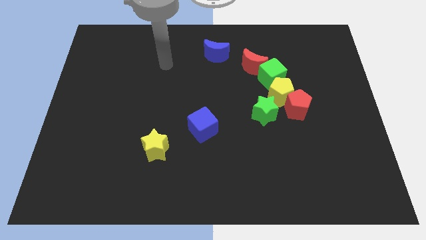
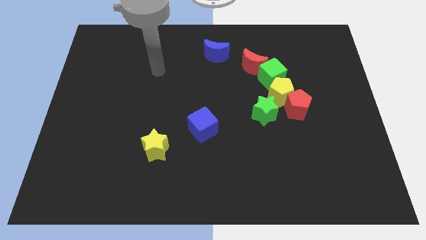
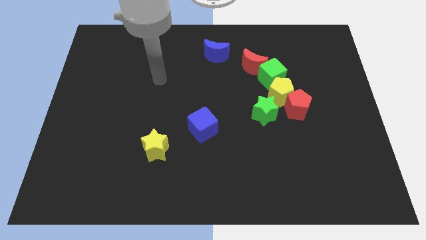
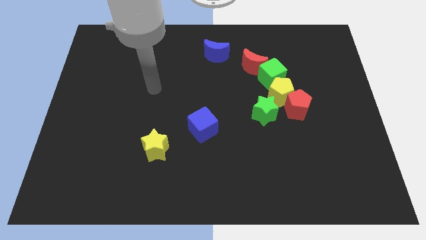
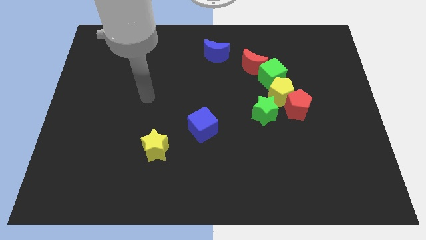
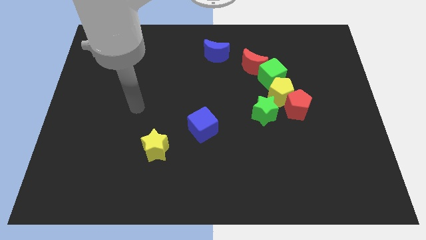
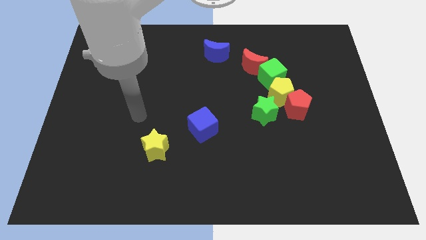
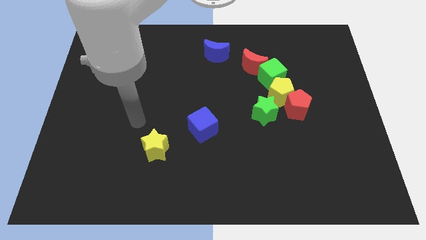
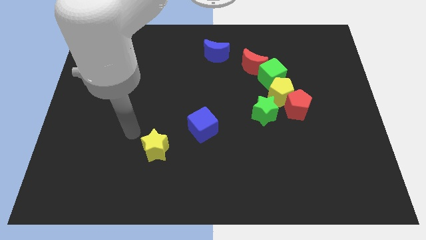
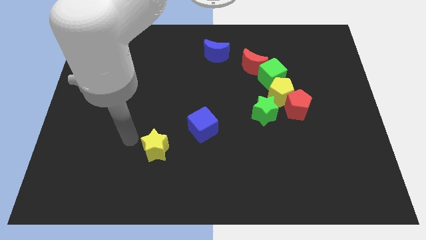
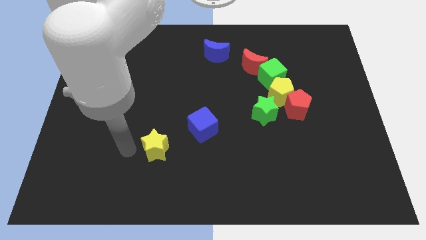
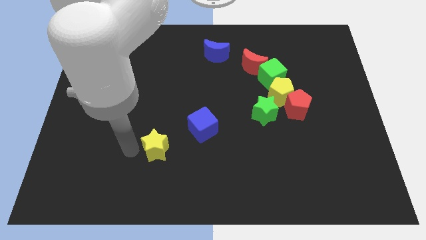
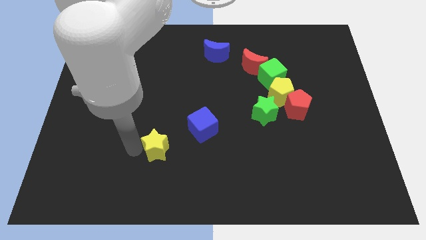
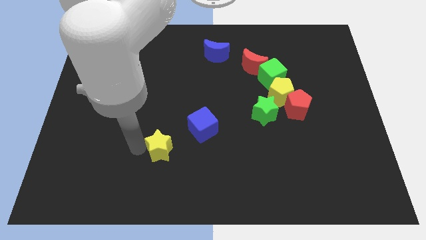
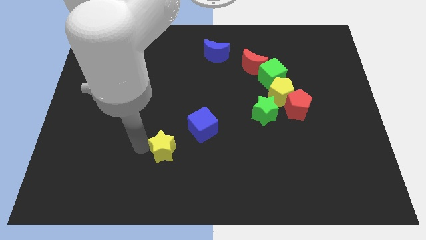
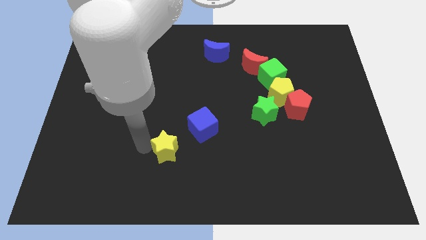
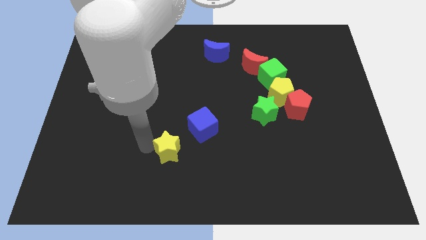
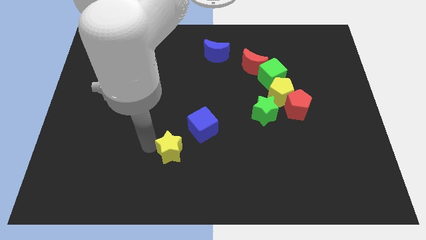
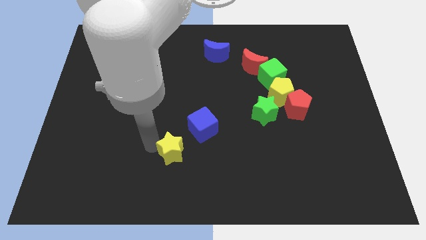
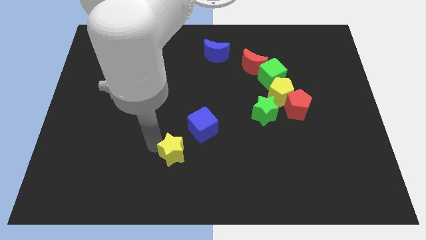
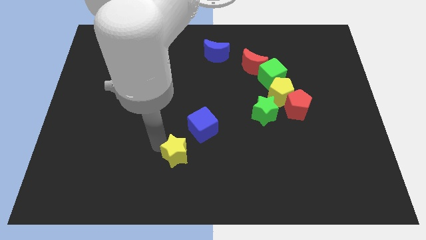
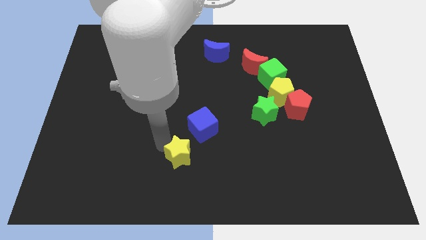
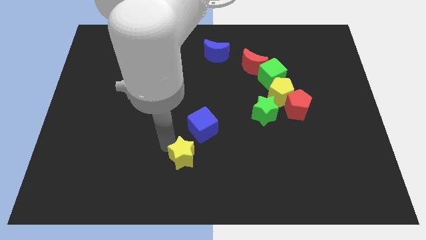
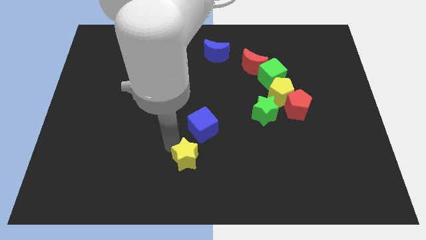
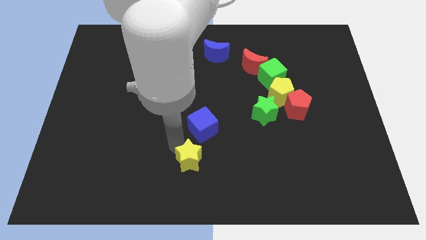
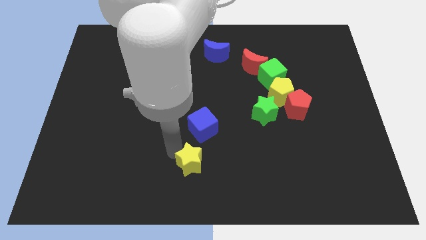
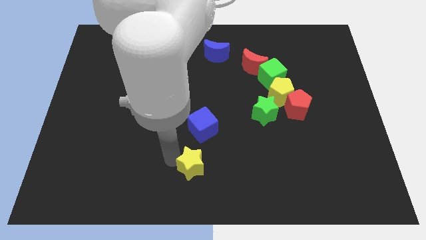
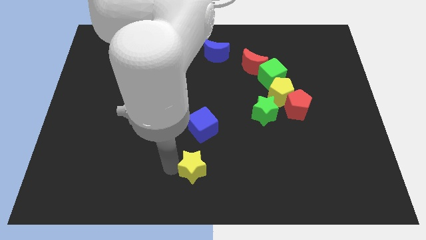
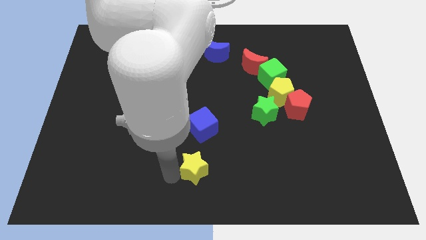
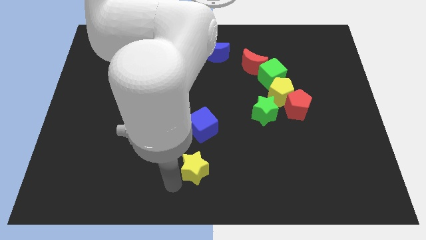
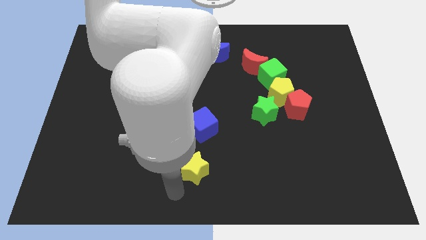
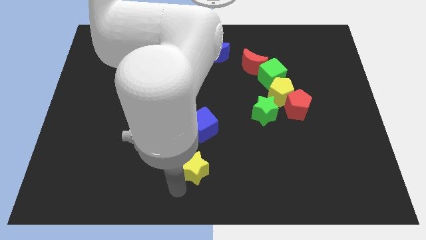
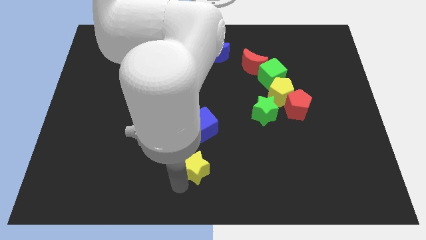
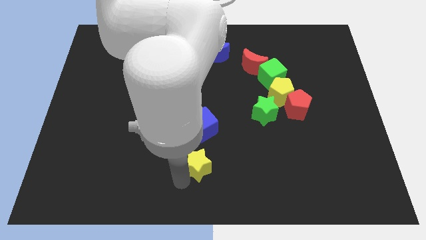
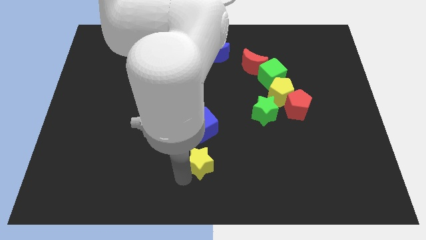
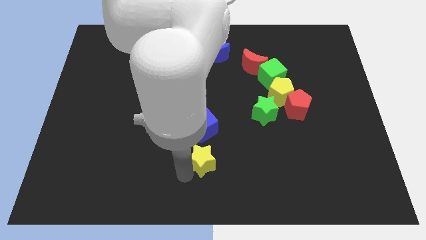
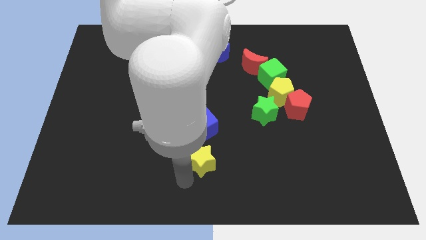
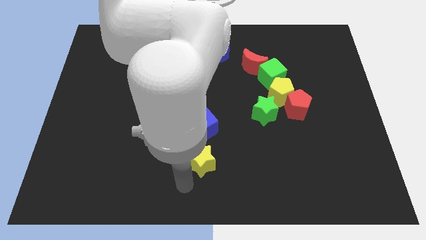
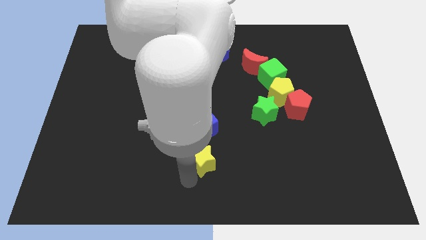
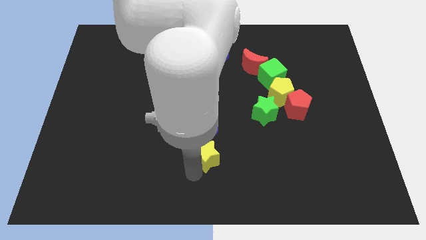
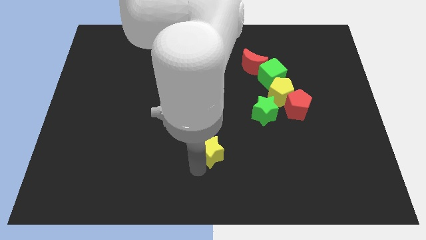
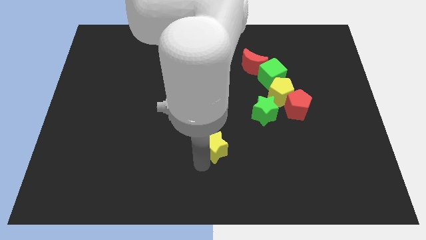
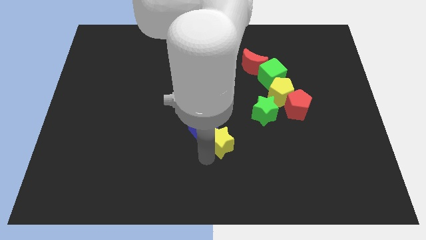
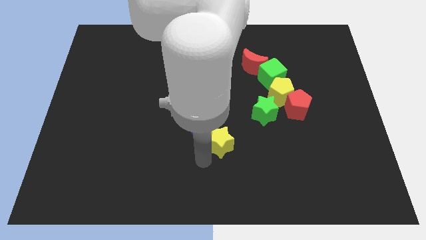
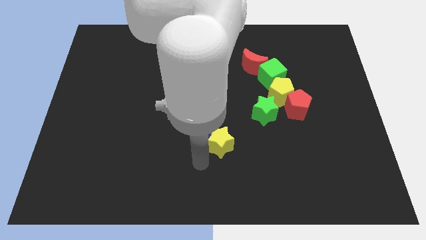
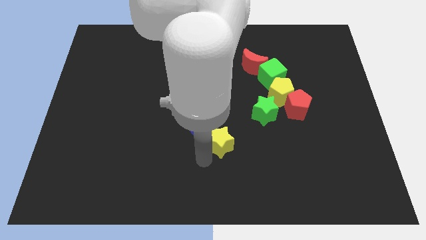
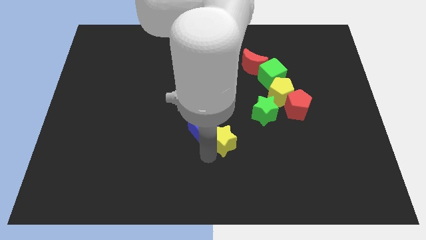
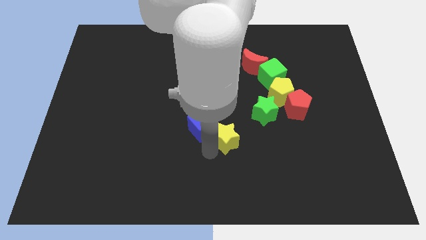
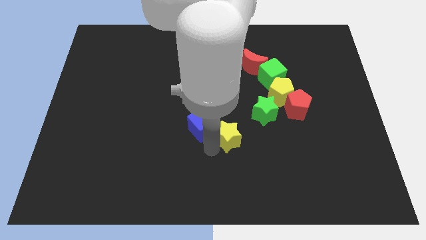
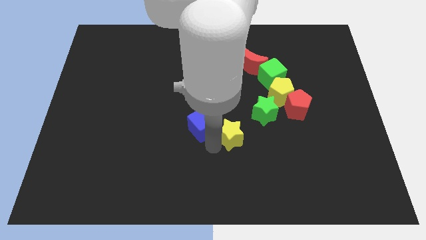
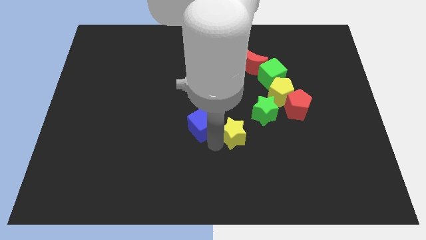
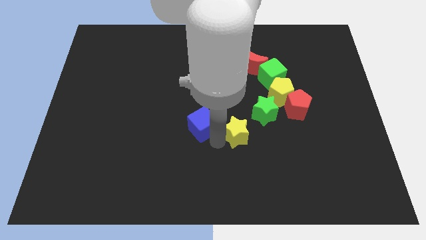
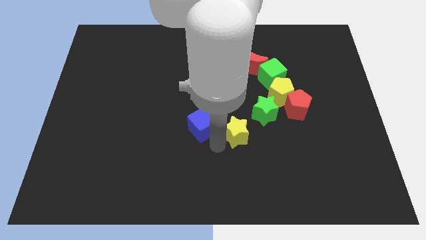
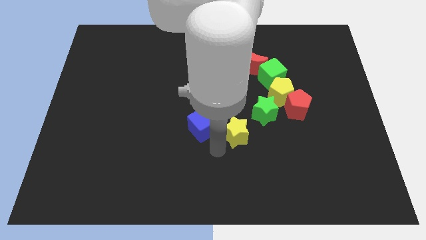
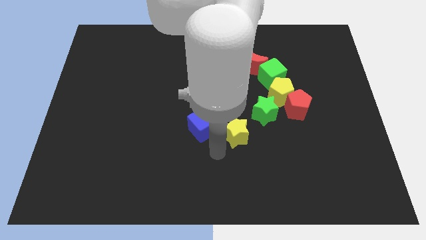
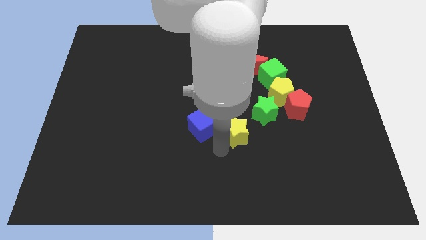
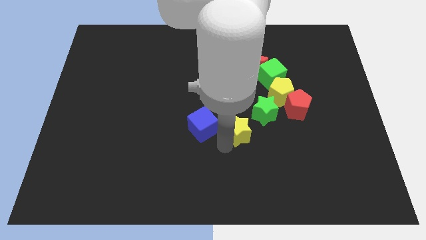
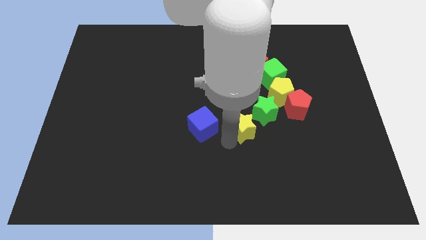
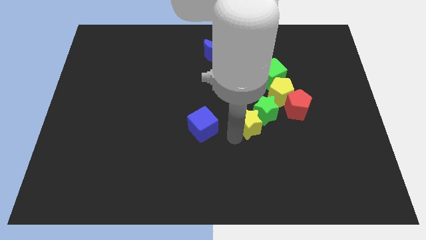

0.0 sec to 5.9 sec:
move the yellow star to the bottom left side of the yellow pentagon
